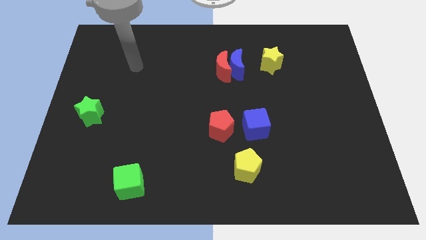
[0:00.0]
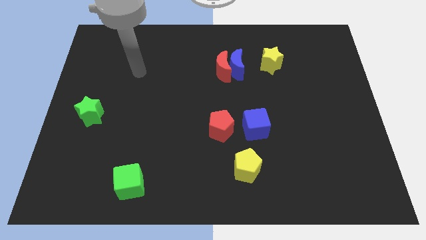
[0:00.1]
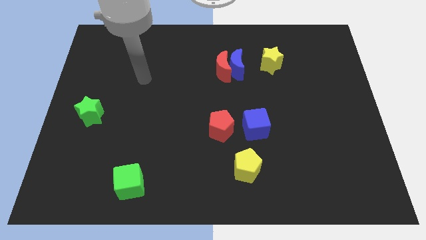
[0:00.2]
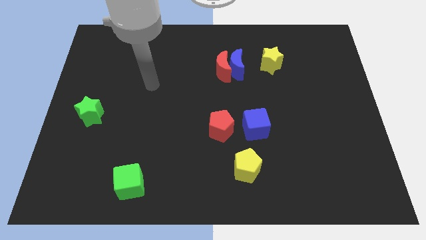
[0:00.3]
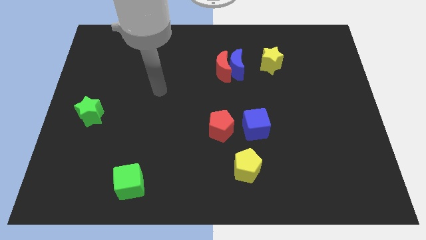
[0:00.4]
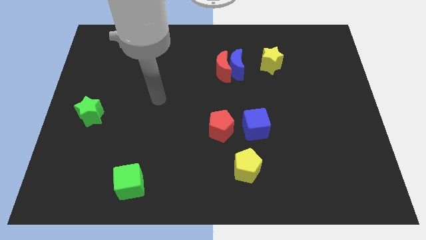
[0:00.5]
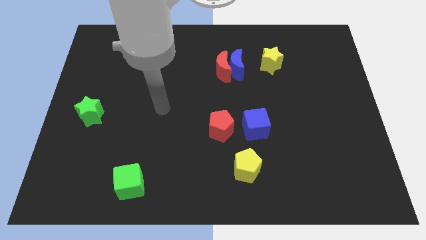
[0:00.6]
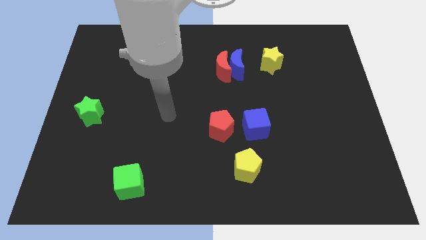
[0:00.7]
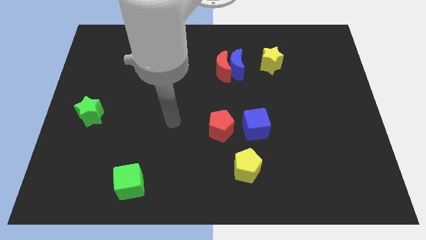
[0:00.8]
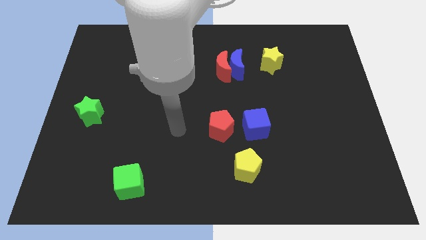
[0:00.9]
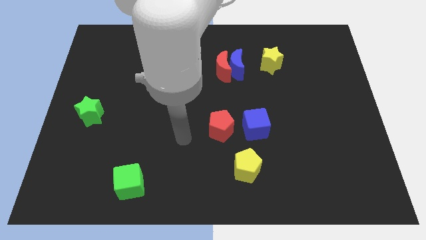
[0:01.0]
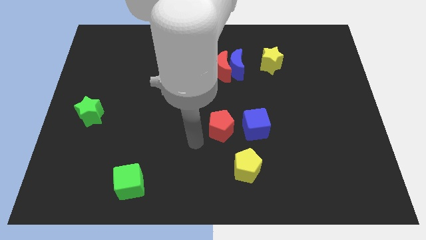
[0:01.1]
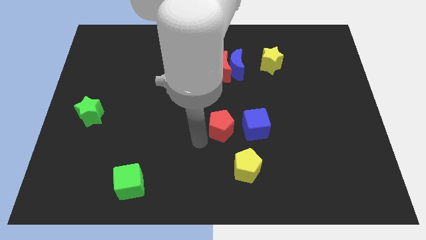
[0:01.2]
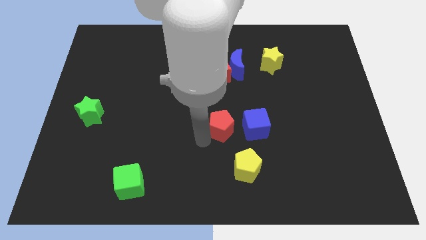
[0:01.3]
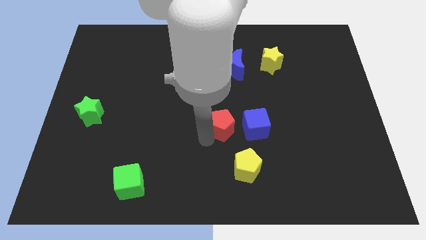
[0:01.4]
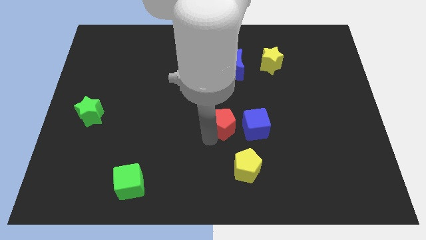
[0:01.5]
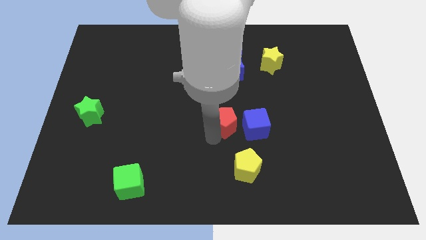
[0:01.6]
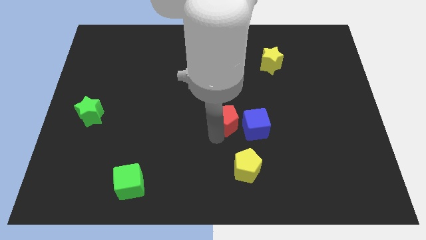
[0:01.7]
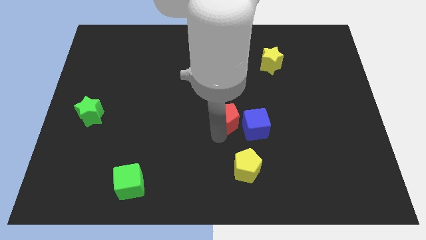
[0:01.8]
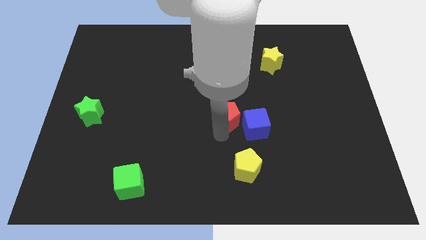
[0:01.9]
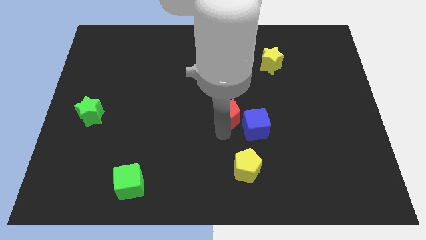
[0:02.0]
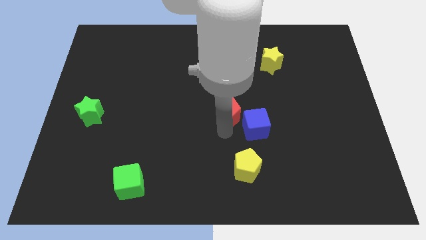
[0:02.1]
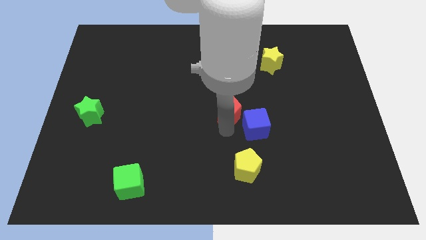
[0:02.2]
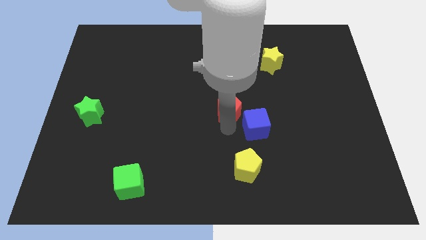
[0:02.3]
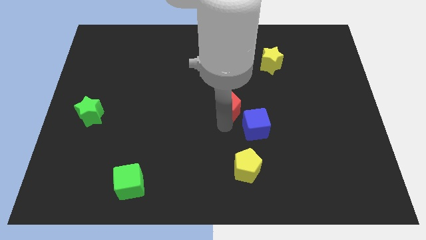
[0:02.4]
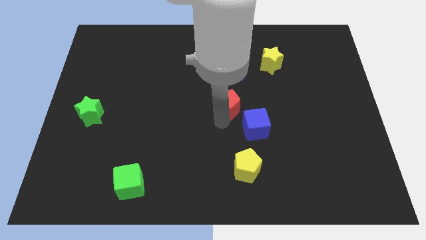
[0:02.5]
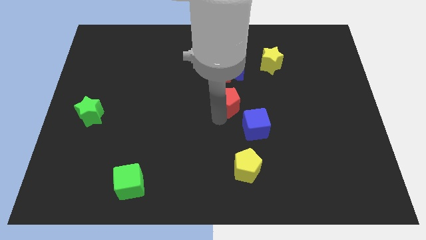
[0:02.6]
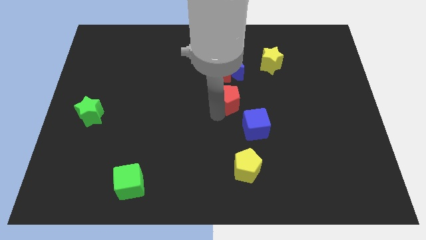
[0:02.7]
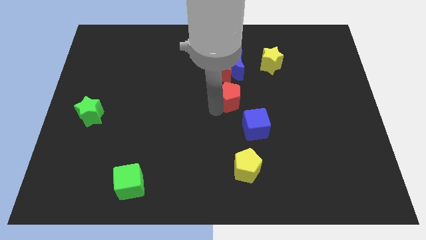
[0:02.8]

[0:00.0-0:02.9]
push the red pentagon diagonally upwards and to the right a little

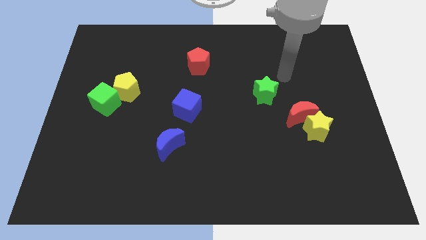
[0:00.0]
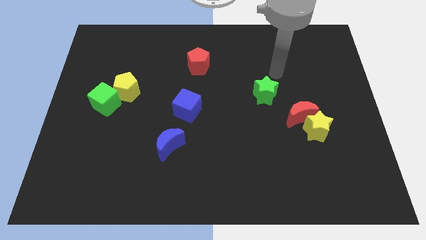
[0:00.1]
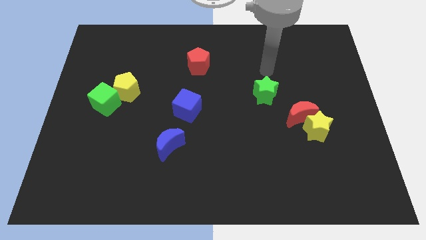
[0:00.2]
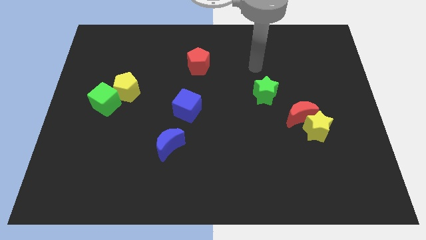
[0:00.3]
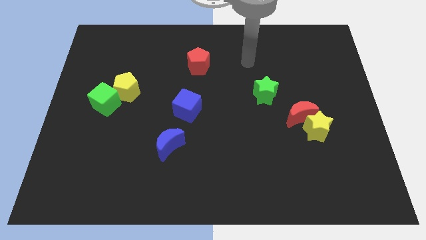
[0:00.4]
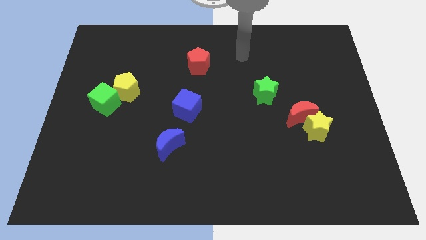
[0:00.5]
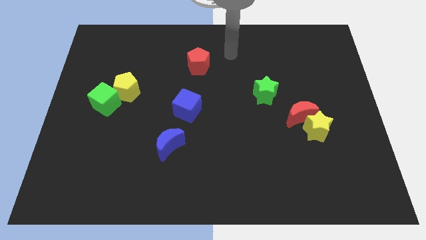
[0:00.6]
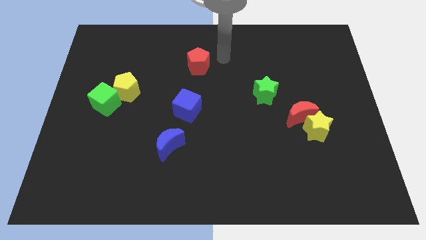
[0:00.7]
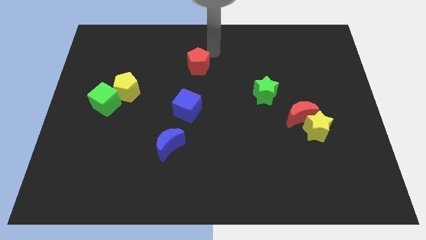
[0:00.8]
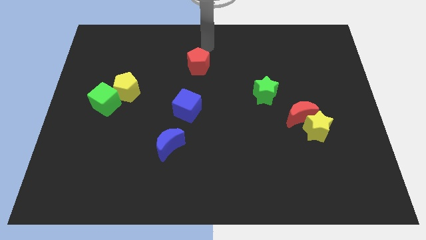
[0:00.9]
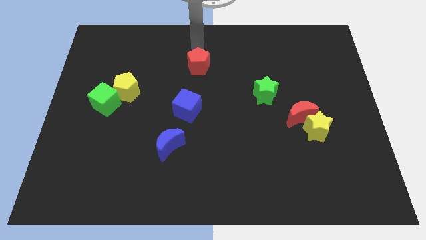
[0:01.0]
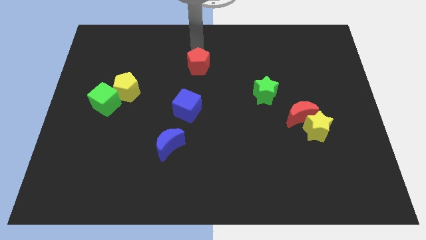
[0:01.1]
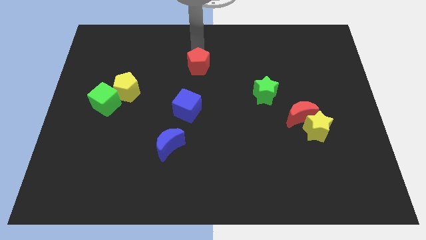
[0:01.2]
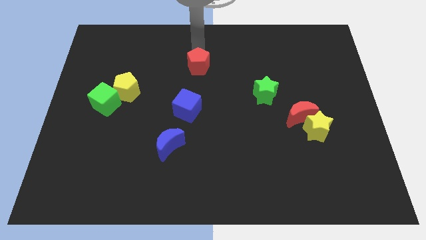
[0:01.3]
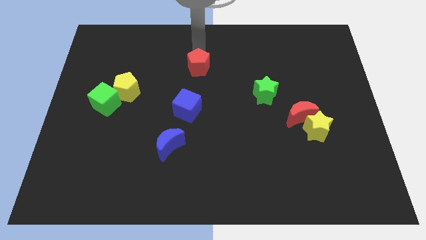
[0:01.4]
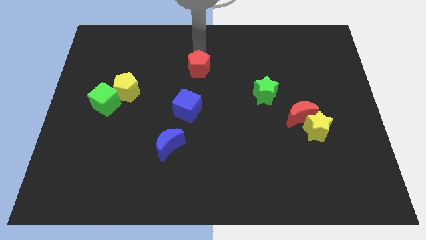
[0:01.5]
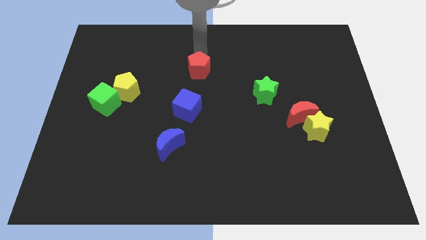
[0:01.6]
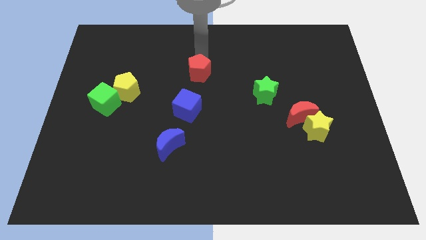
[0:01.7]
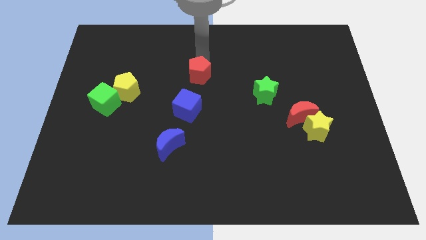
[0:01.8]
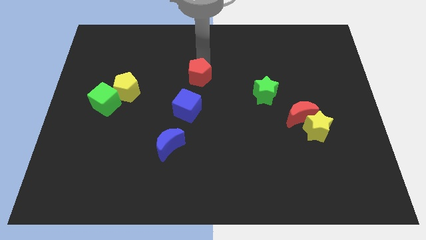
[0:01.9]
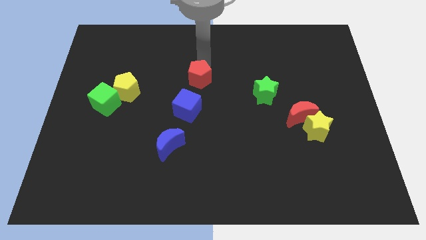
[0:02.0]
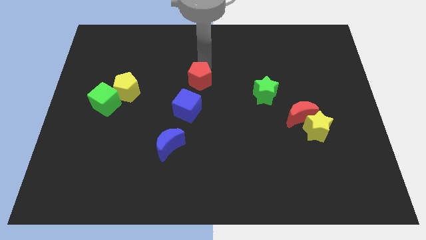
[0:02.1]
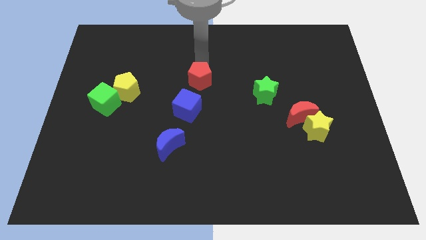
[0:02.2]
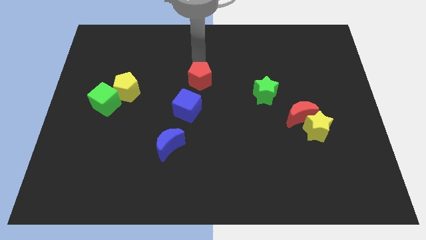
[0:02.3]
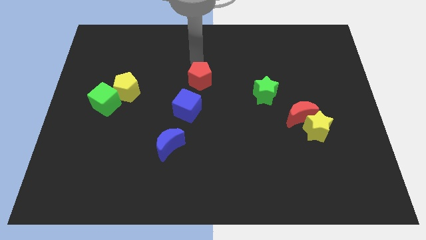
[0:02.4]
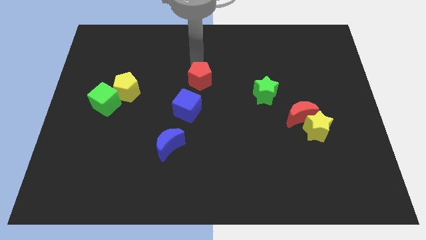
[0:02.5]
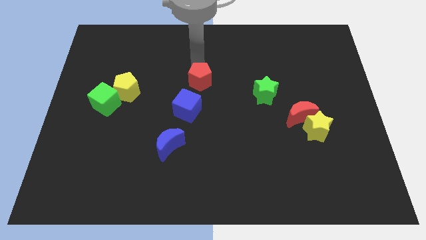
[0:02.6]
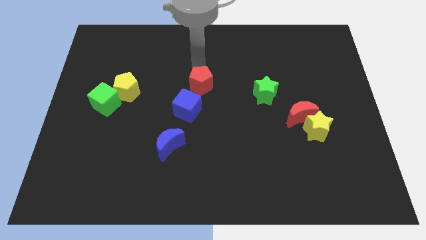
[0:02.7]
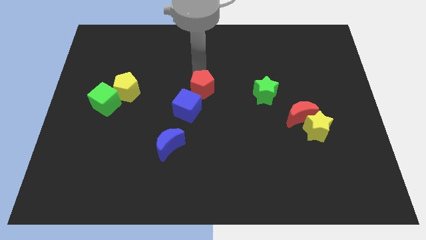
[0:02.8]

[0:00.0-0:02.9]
slightly push the red pentagon down

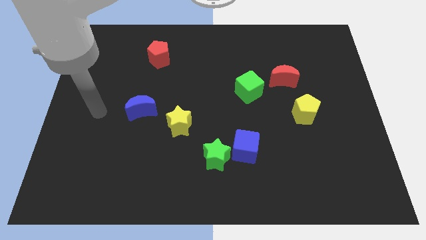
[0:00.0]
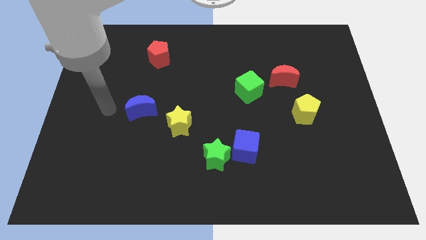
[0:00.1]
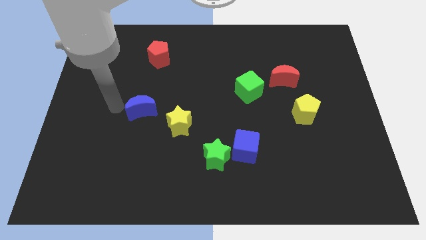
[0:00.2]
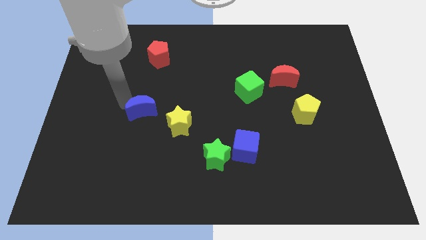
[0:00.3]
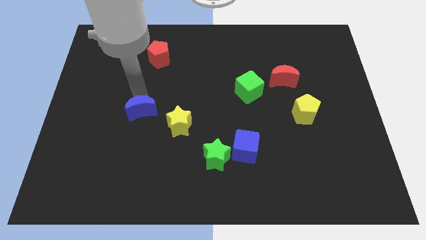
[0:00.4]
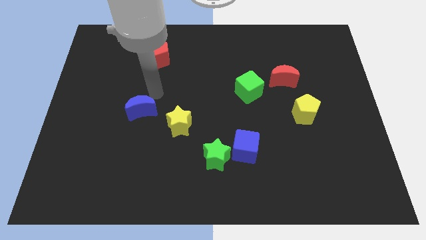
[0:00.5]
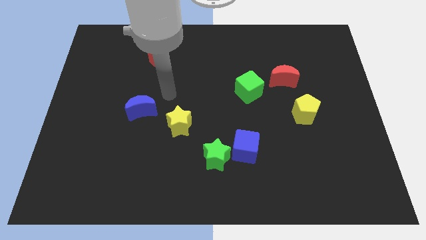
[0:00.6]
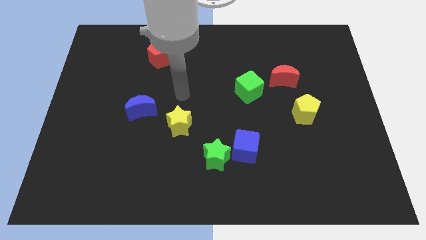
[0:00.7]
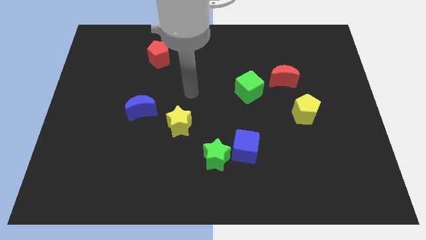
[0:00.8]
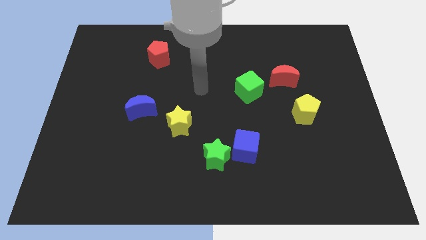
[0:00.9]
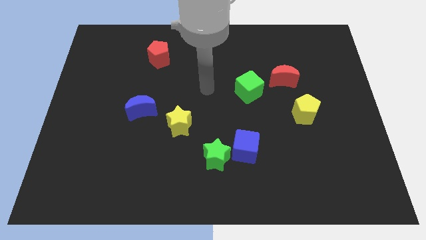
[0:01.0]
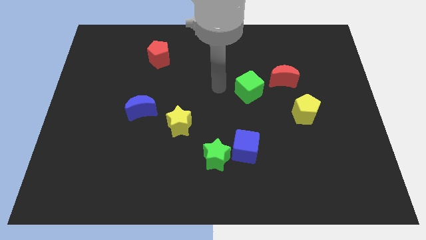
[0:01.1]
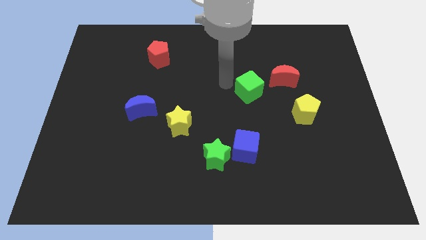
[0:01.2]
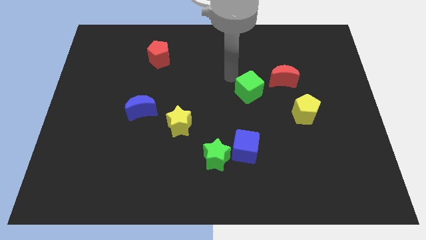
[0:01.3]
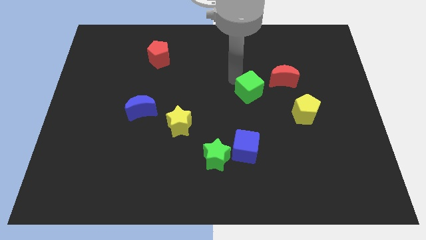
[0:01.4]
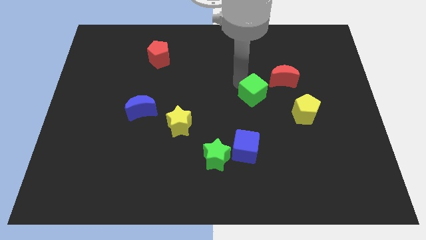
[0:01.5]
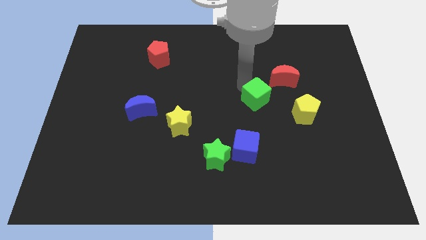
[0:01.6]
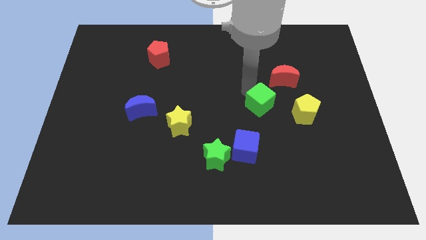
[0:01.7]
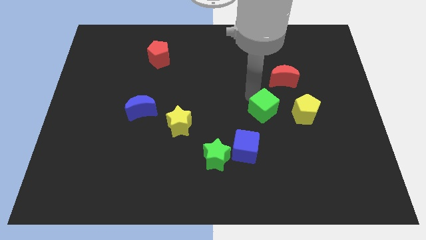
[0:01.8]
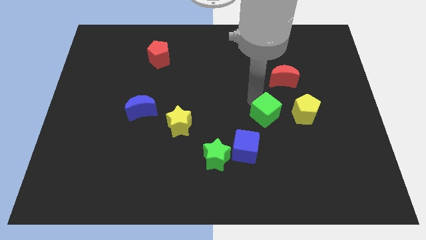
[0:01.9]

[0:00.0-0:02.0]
slide the green cube downwards and right slightly

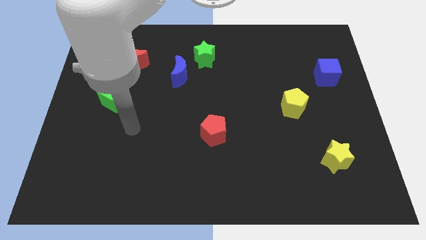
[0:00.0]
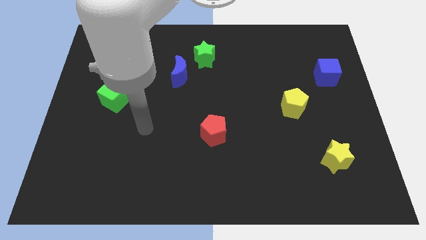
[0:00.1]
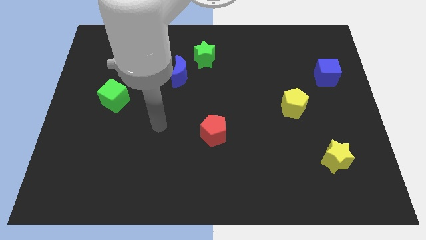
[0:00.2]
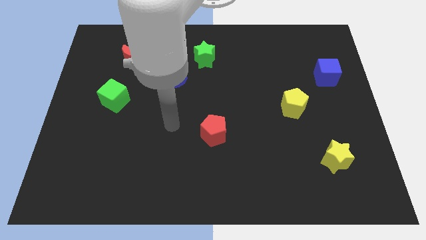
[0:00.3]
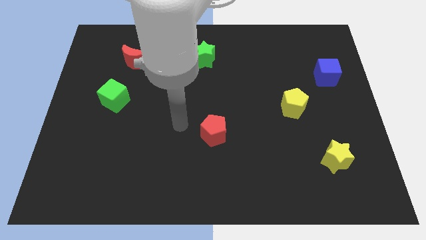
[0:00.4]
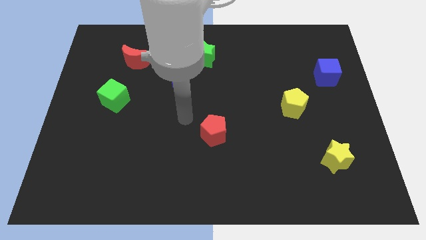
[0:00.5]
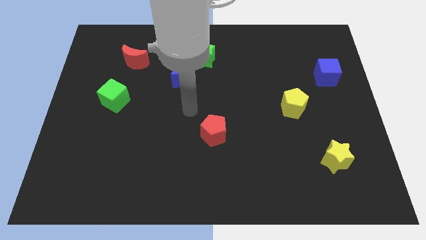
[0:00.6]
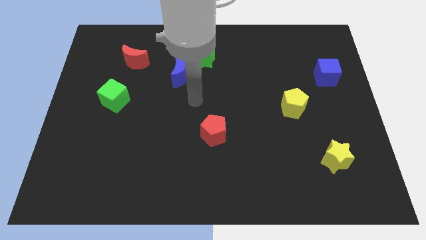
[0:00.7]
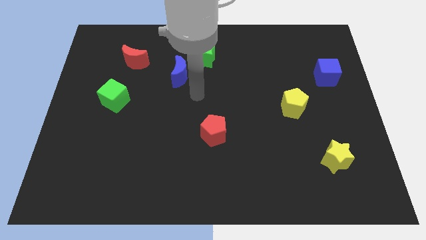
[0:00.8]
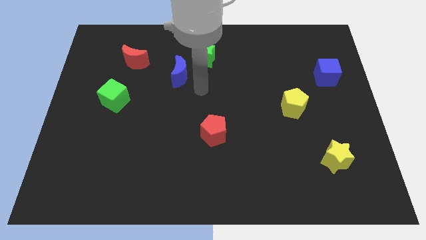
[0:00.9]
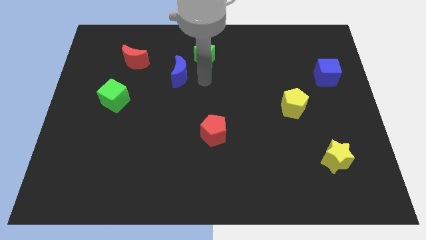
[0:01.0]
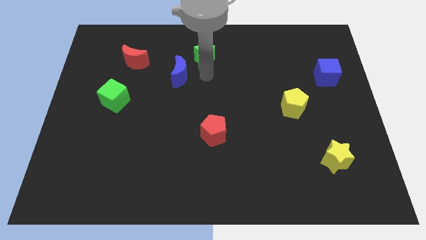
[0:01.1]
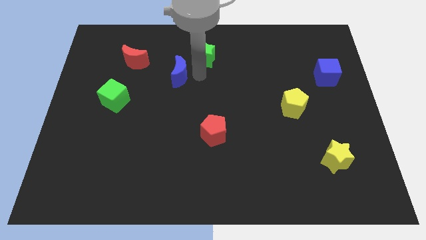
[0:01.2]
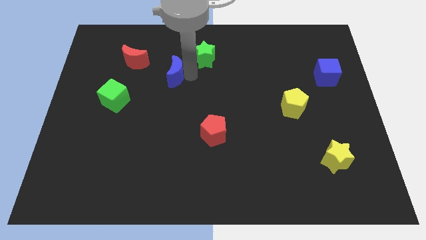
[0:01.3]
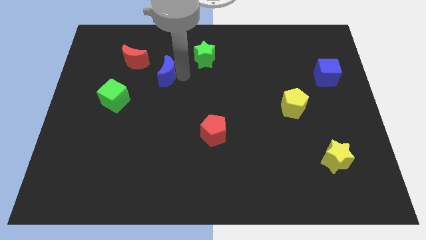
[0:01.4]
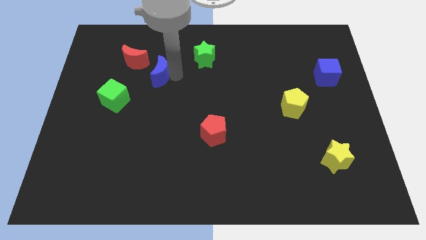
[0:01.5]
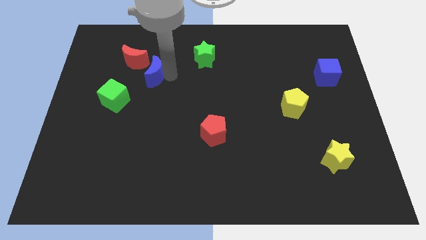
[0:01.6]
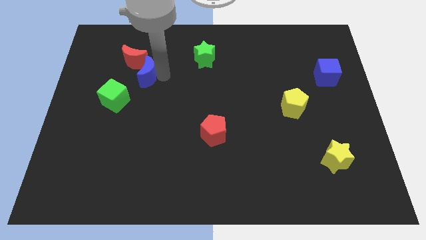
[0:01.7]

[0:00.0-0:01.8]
slide the blue moon slightly to the left
